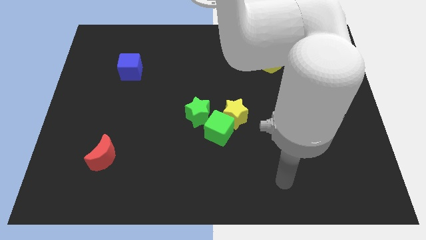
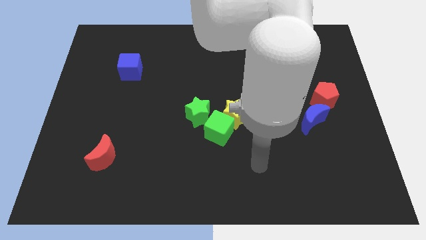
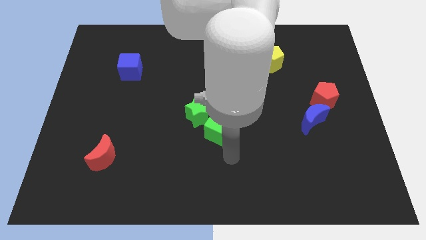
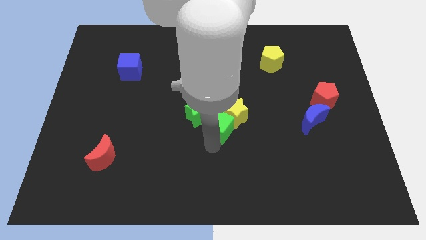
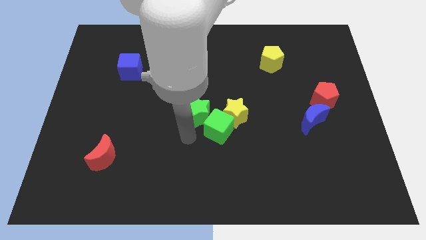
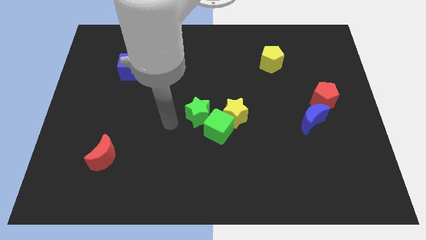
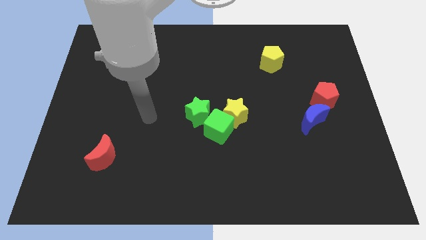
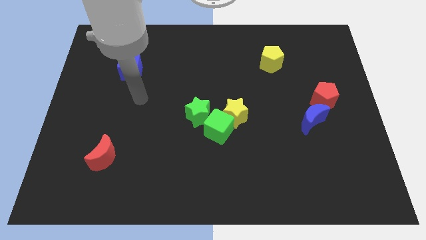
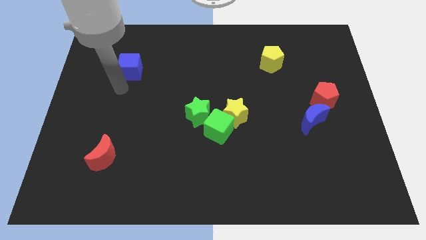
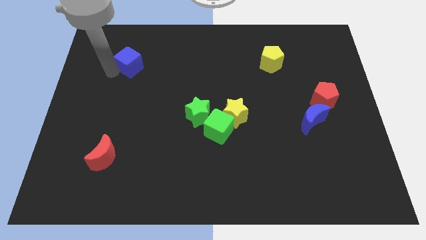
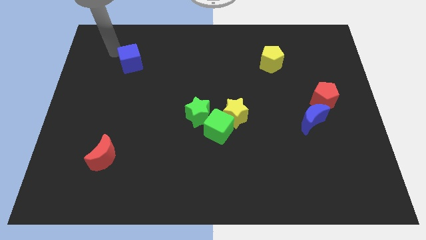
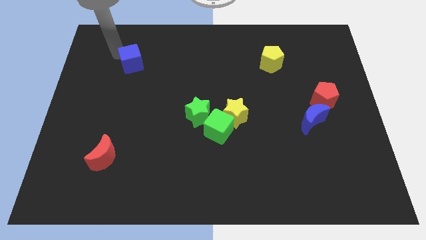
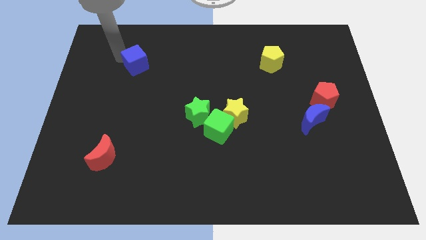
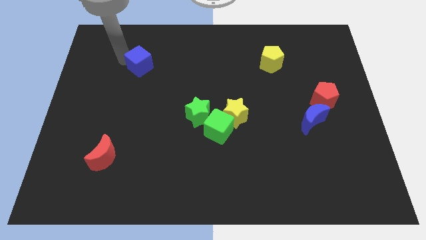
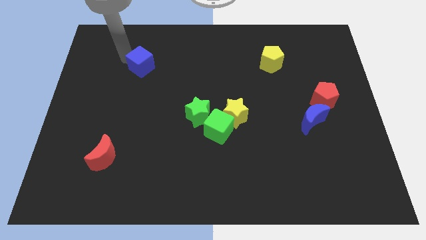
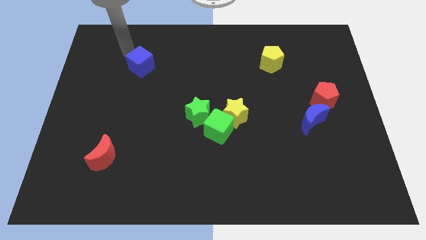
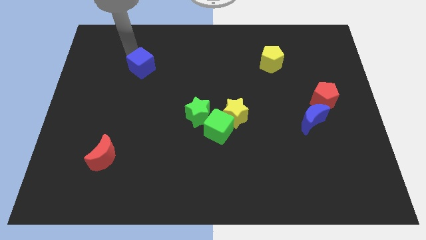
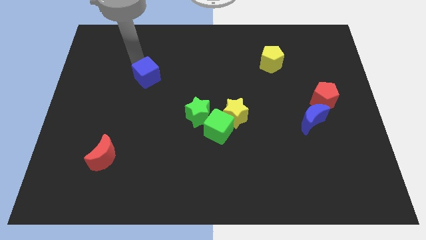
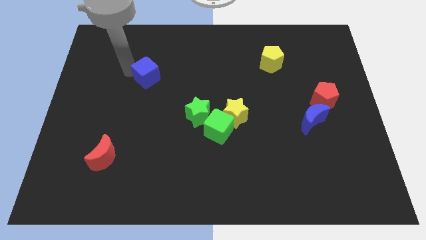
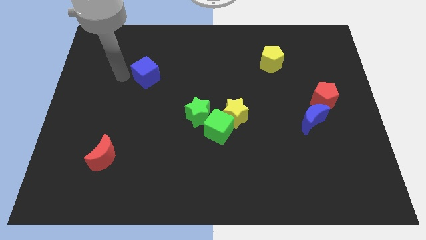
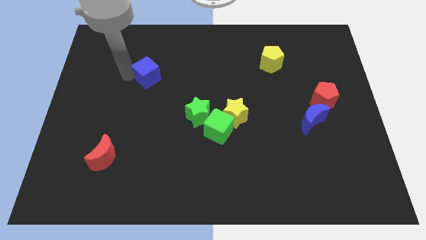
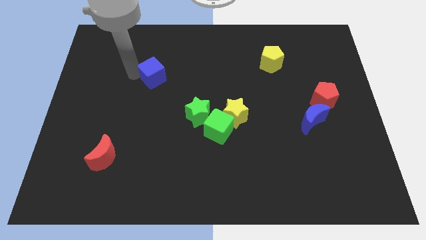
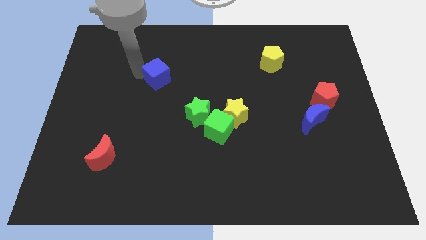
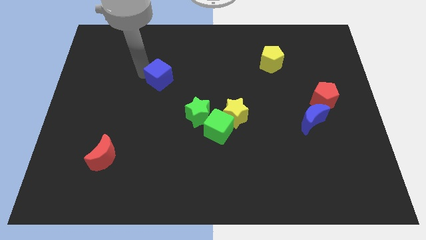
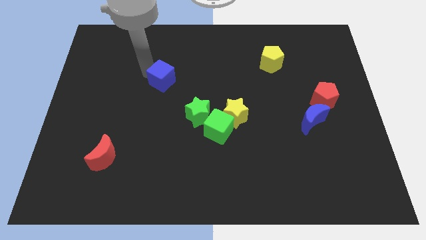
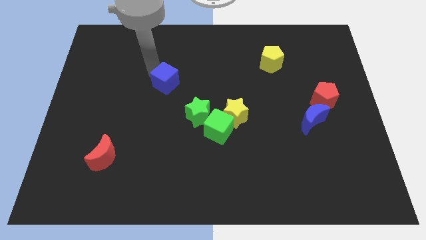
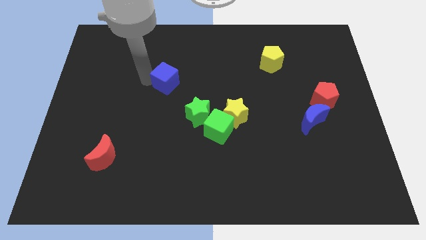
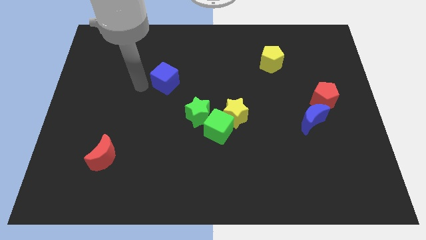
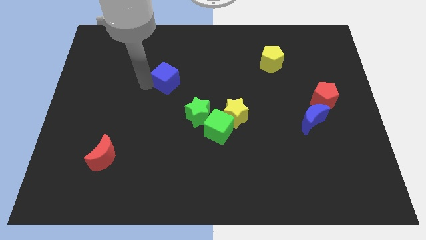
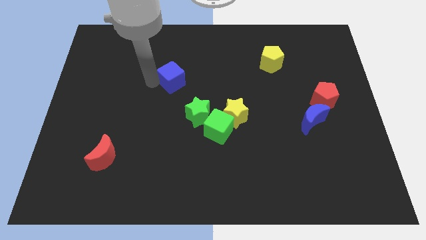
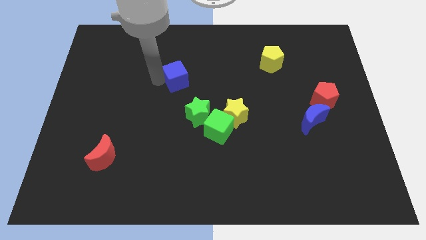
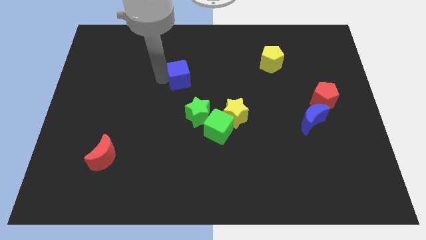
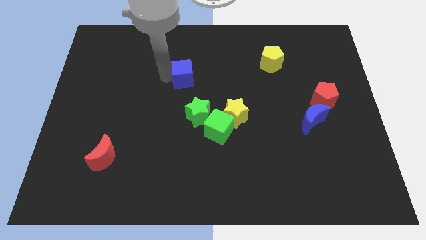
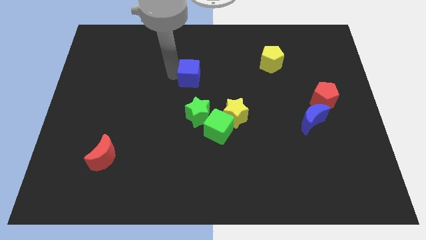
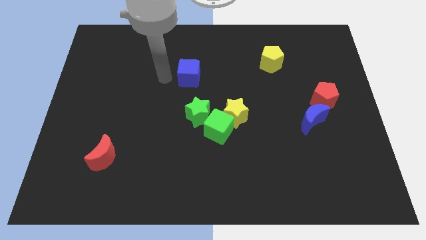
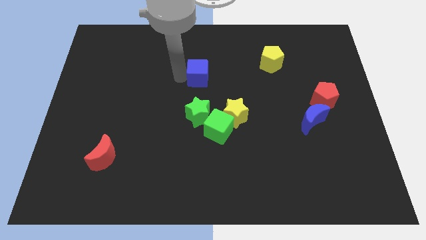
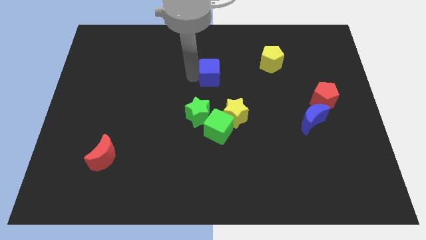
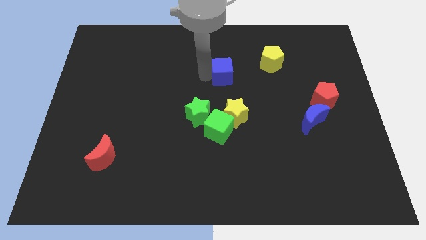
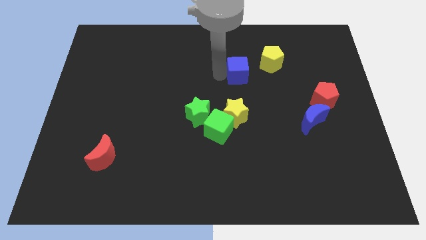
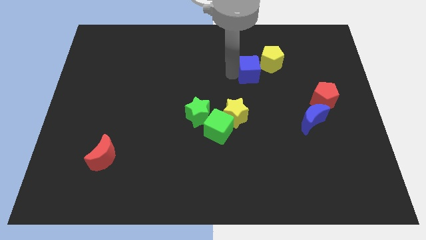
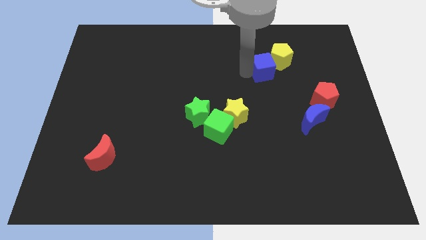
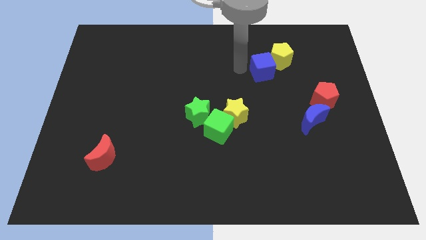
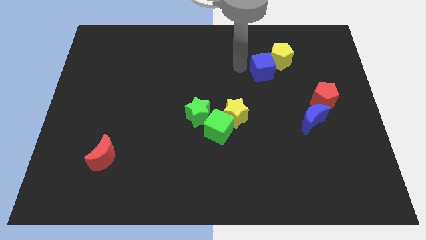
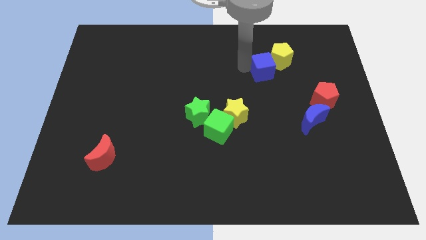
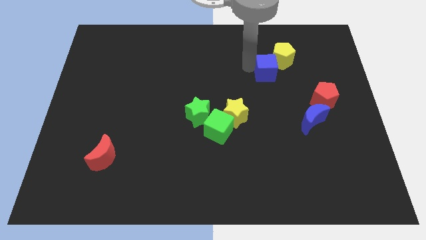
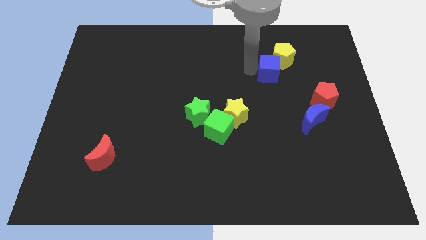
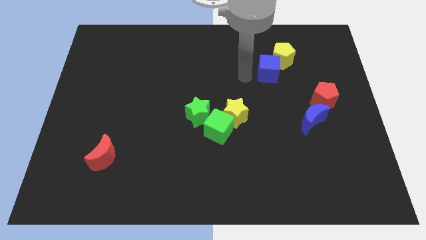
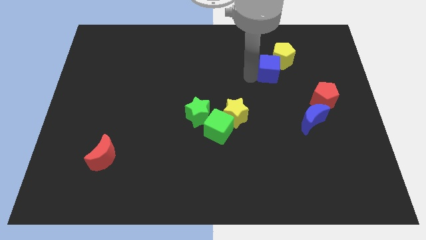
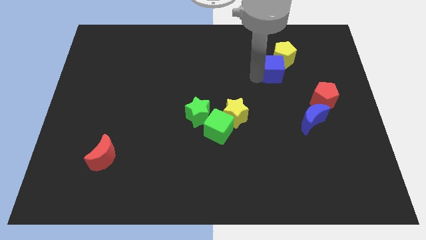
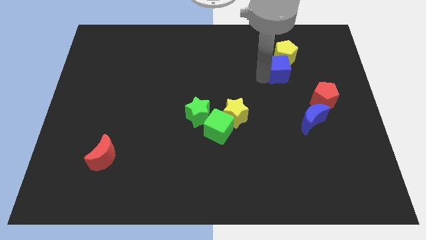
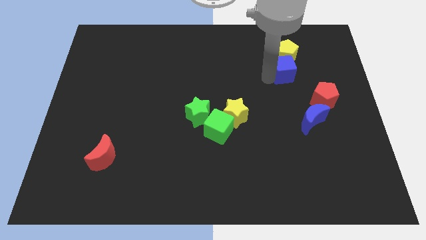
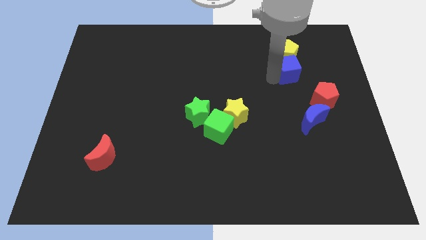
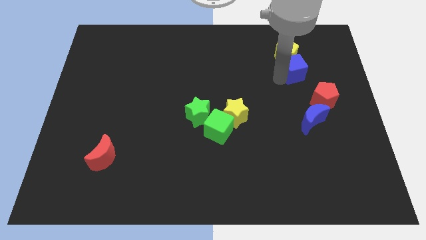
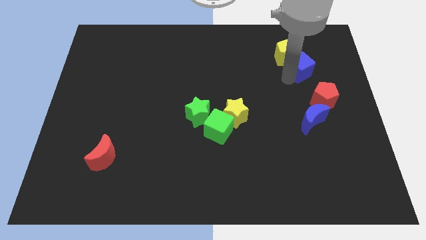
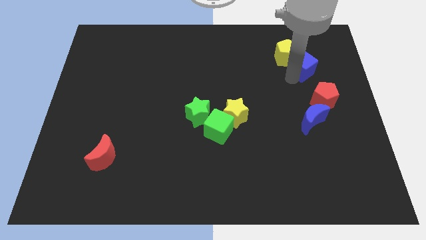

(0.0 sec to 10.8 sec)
move the blue cube right of the yellow pentagon

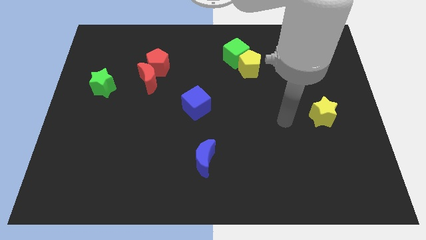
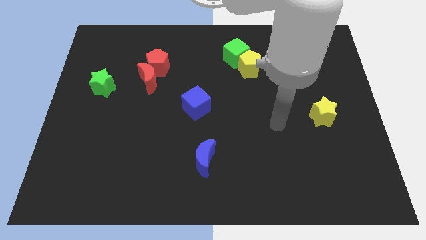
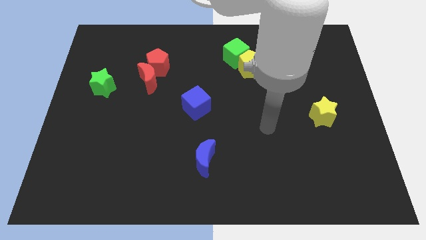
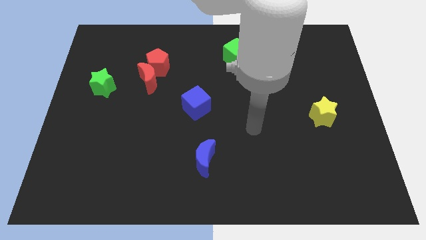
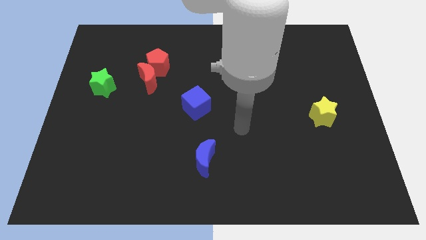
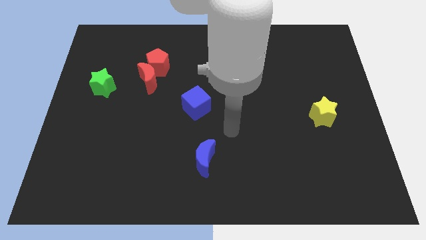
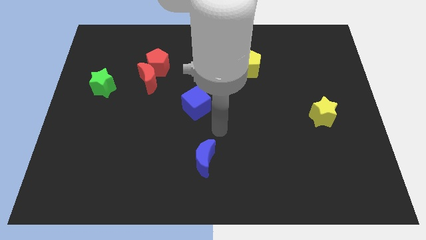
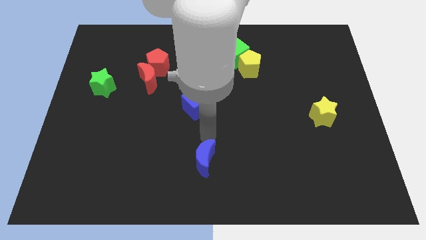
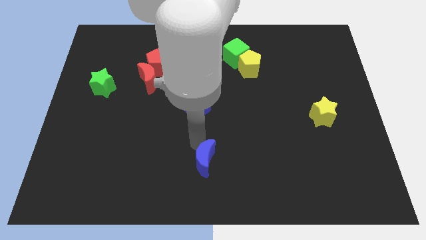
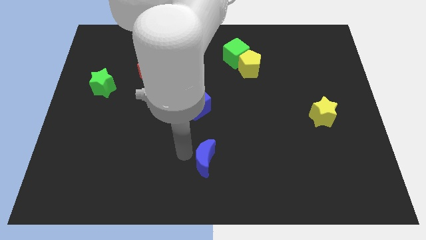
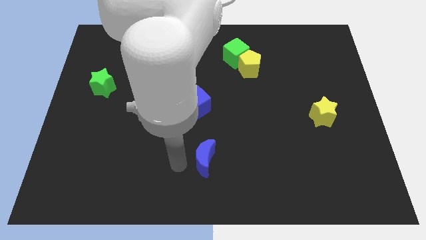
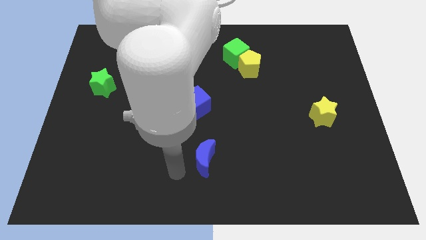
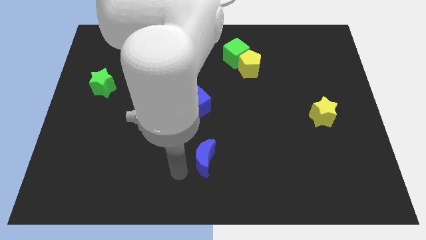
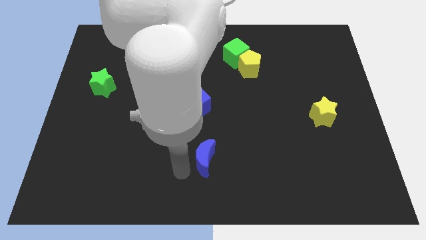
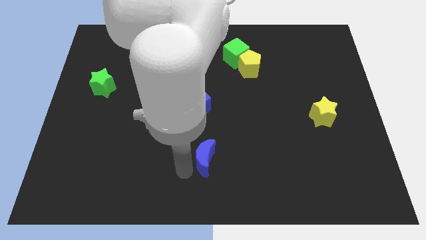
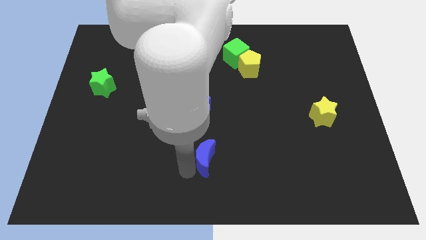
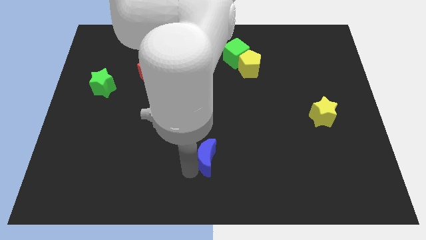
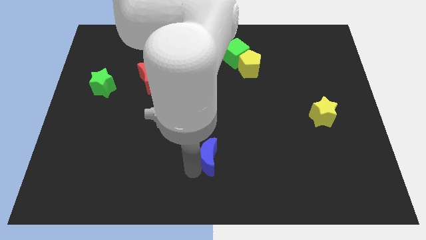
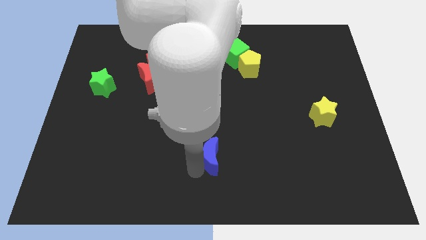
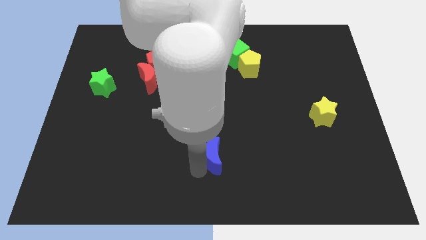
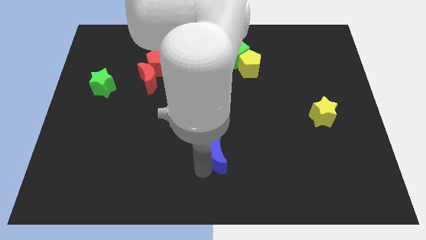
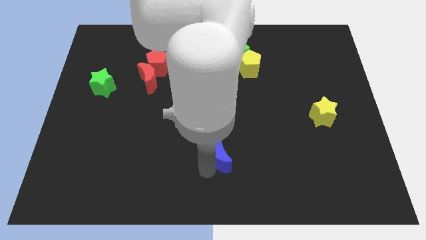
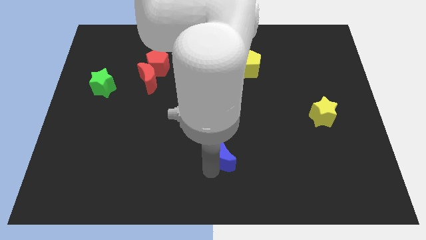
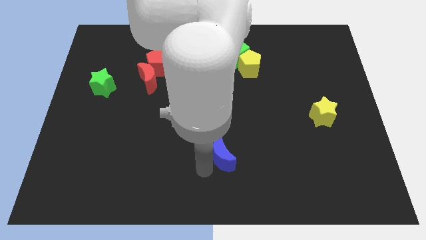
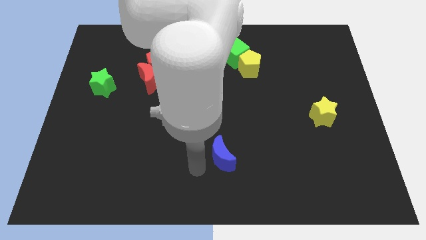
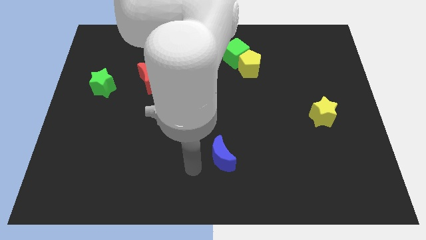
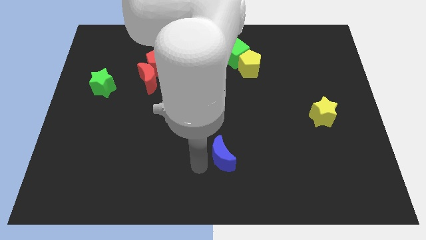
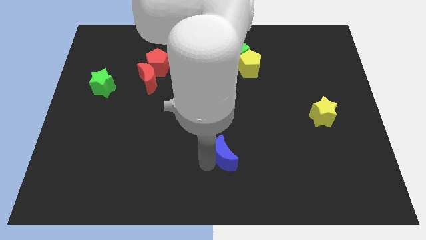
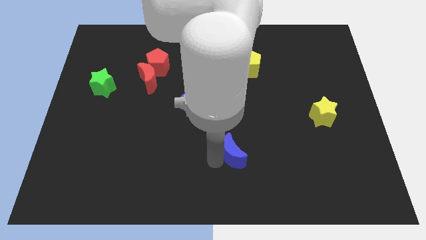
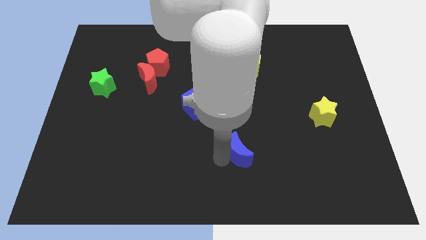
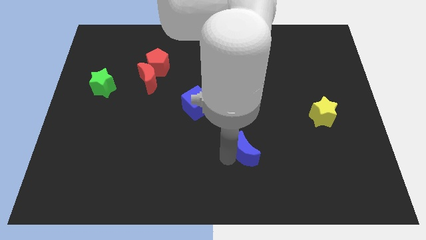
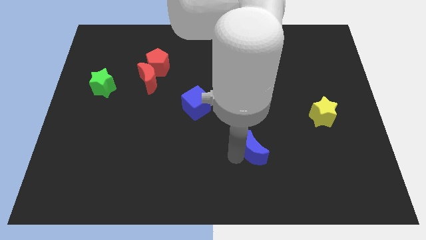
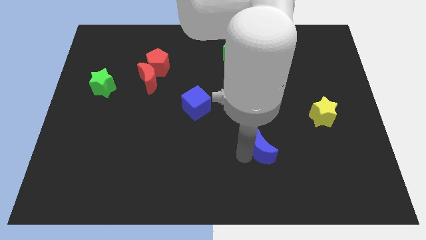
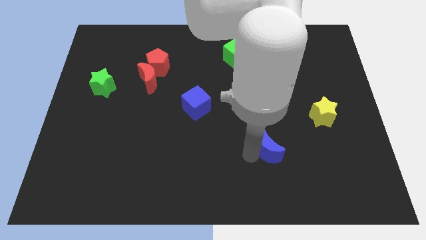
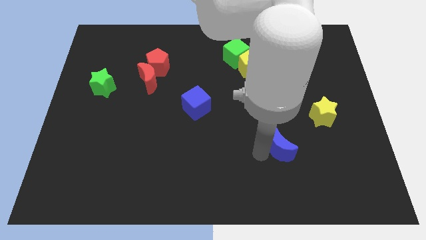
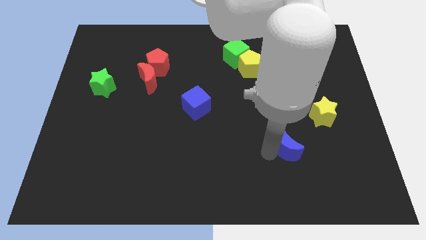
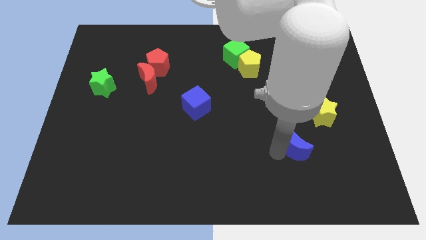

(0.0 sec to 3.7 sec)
move the blue moon diagonally down and to the left of the yellow star
